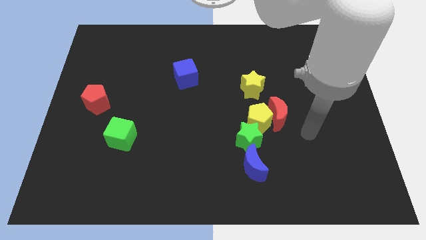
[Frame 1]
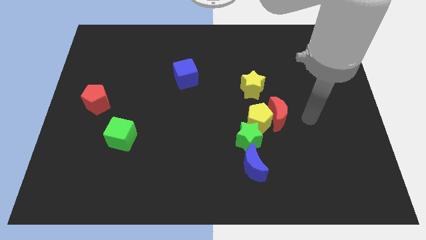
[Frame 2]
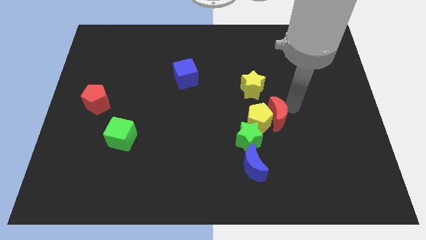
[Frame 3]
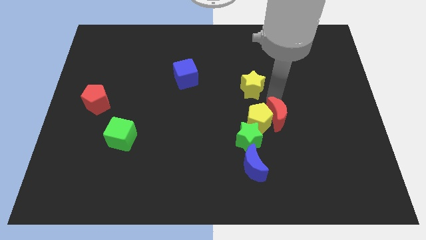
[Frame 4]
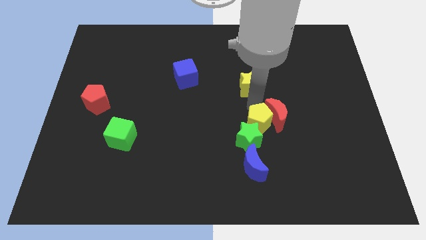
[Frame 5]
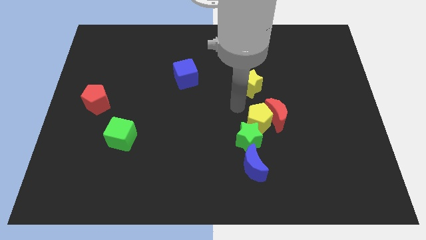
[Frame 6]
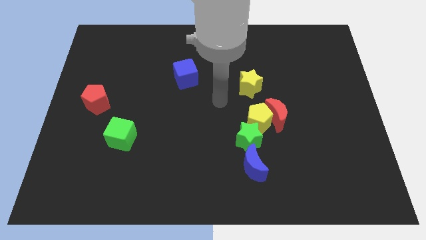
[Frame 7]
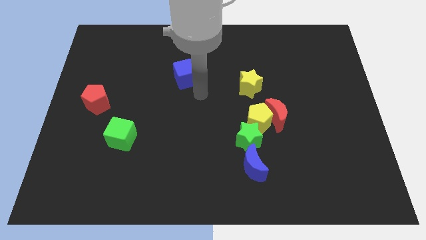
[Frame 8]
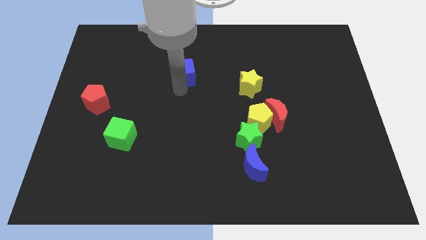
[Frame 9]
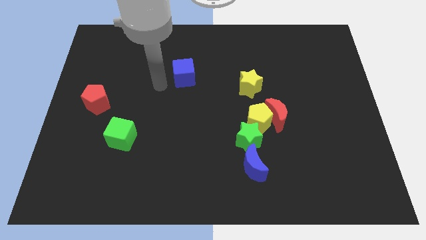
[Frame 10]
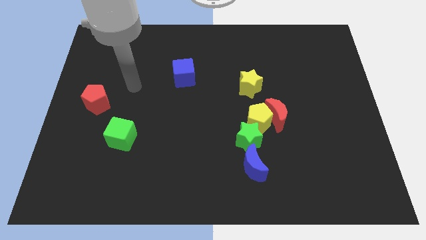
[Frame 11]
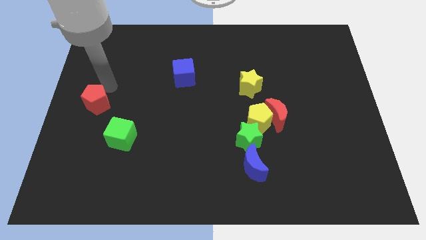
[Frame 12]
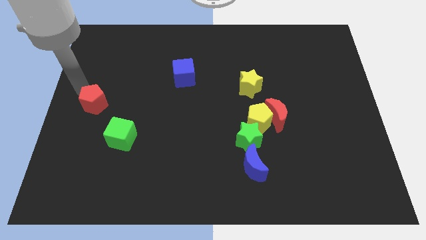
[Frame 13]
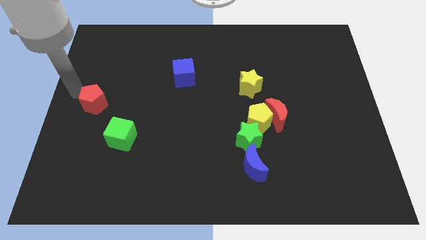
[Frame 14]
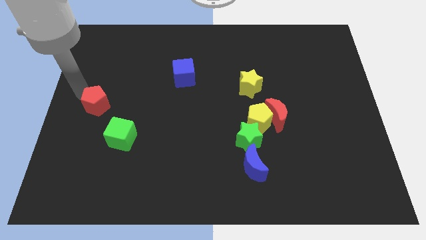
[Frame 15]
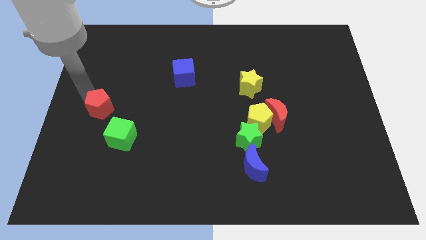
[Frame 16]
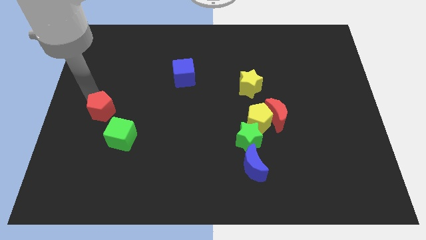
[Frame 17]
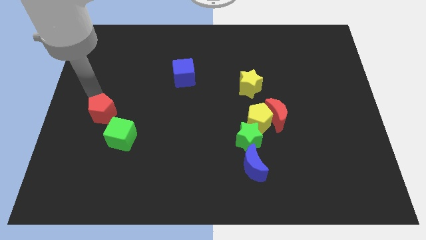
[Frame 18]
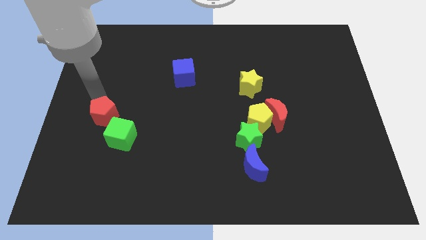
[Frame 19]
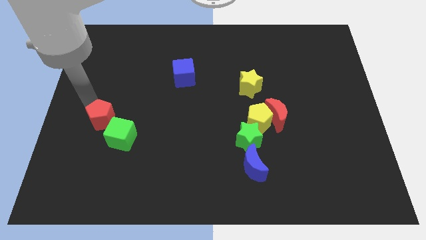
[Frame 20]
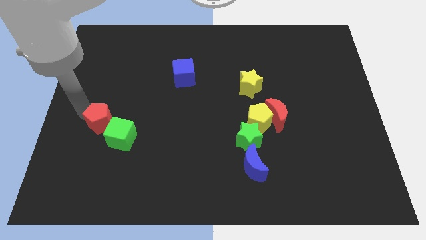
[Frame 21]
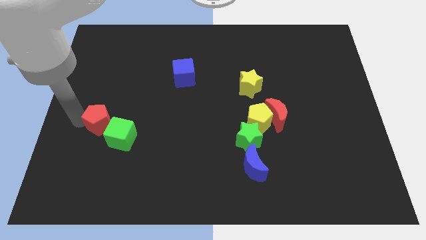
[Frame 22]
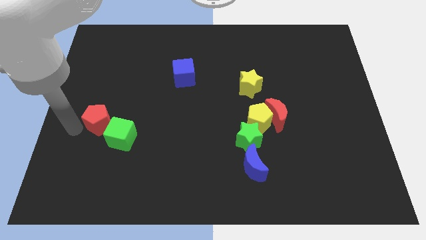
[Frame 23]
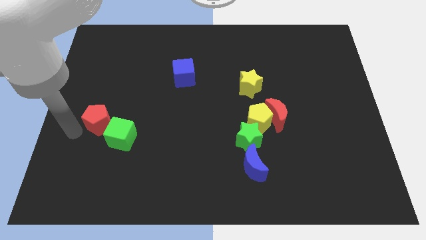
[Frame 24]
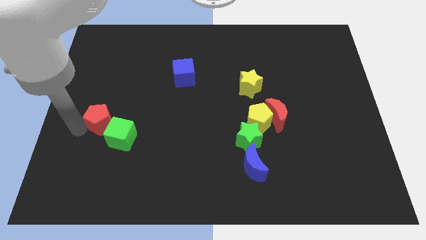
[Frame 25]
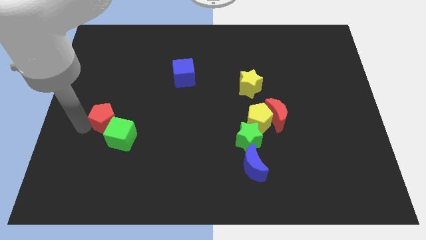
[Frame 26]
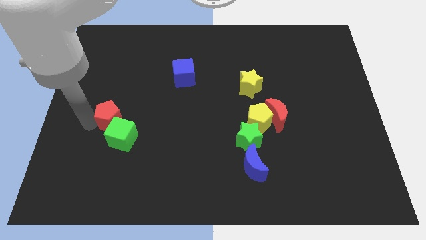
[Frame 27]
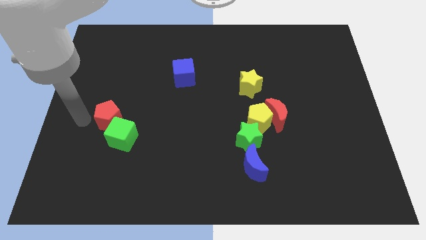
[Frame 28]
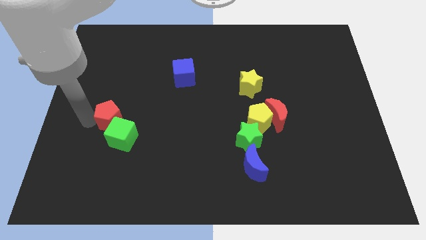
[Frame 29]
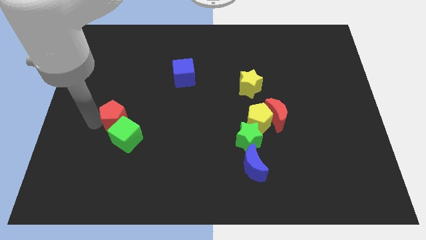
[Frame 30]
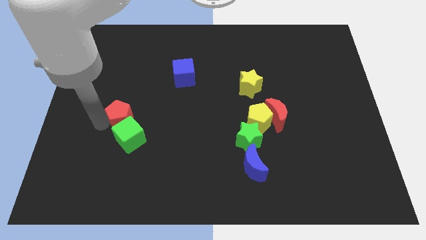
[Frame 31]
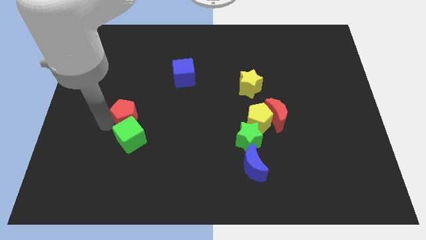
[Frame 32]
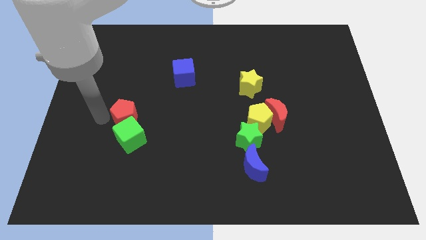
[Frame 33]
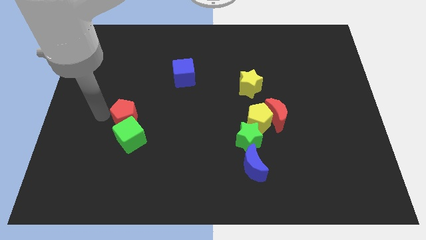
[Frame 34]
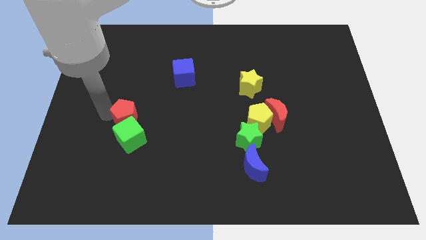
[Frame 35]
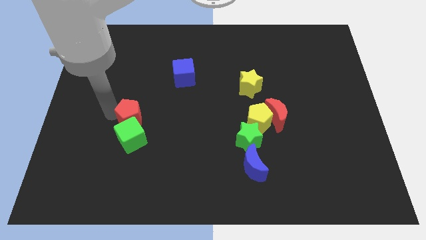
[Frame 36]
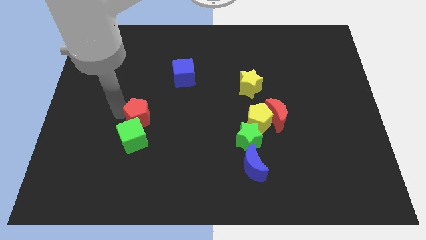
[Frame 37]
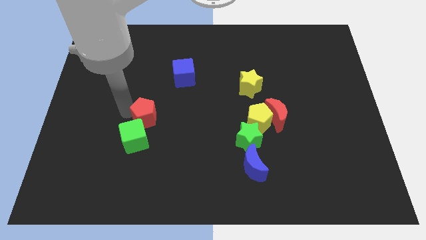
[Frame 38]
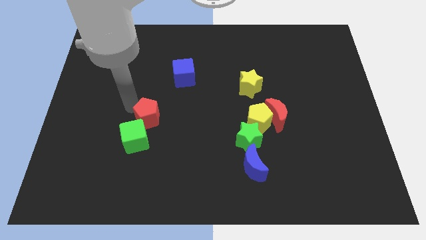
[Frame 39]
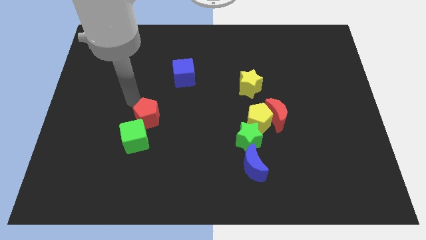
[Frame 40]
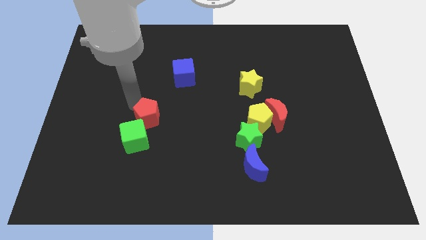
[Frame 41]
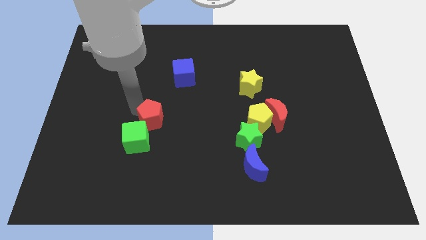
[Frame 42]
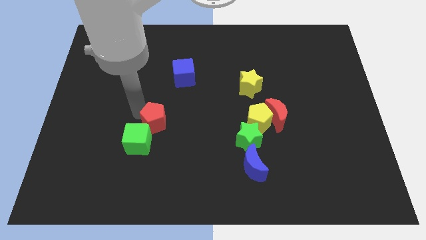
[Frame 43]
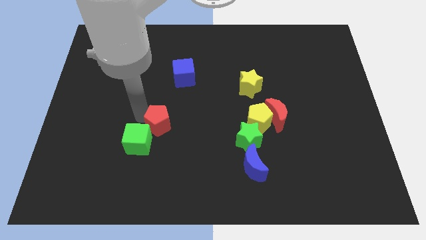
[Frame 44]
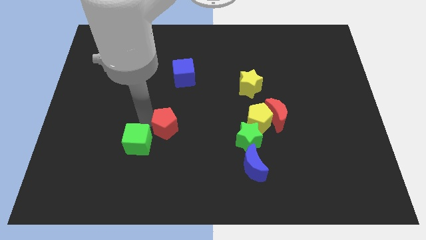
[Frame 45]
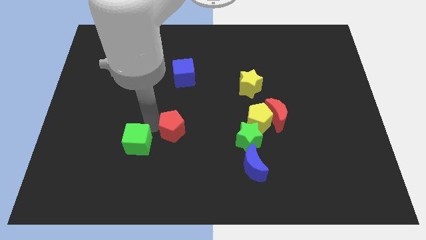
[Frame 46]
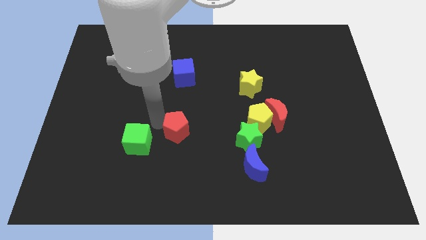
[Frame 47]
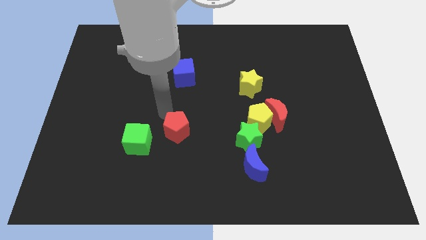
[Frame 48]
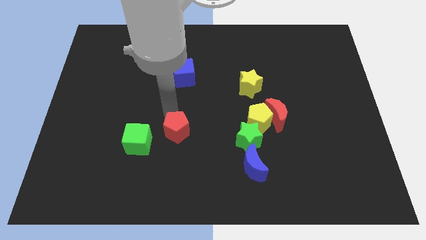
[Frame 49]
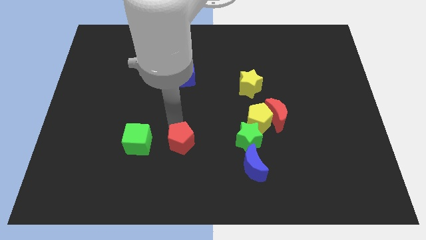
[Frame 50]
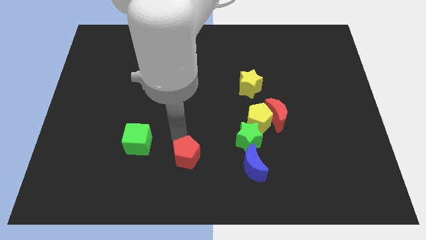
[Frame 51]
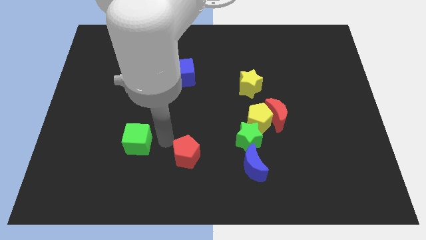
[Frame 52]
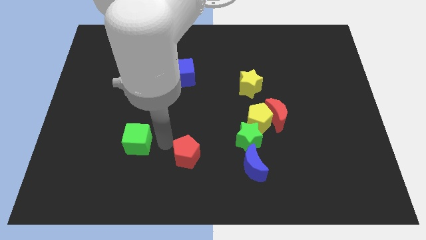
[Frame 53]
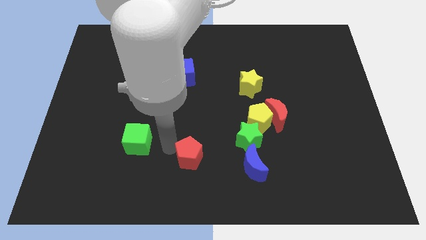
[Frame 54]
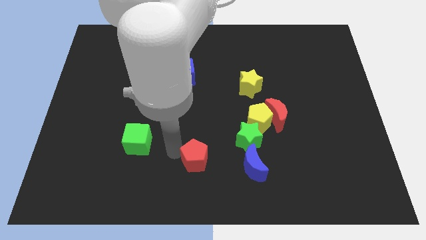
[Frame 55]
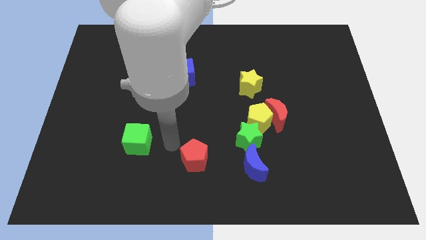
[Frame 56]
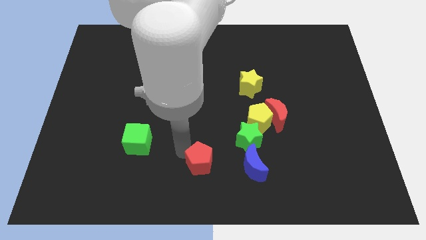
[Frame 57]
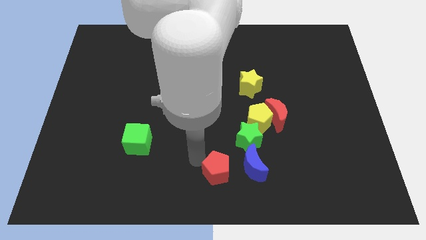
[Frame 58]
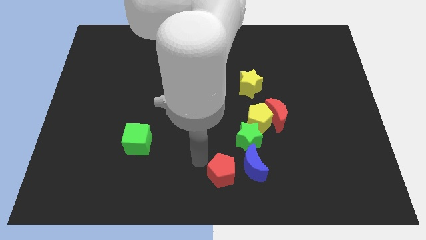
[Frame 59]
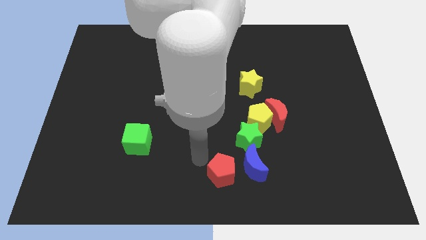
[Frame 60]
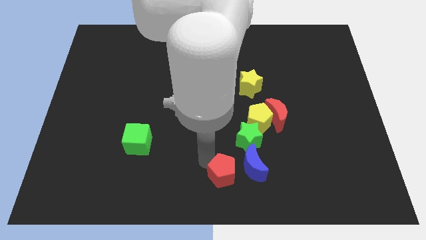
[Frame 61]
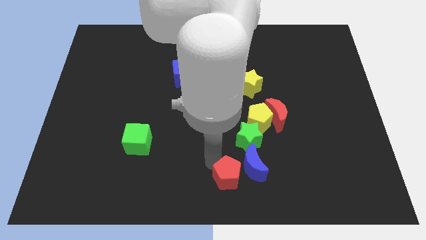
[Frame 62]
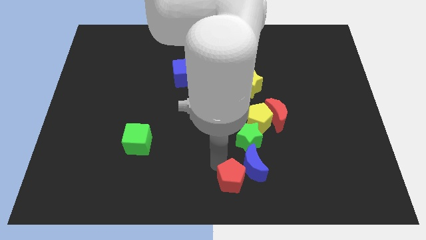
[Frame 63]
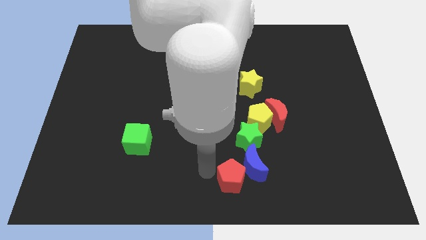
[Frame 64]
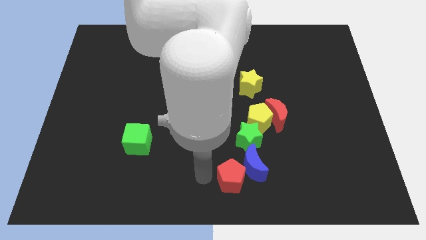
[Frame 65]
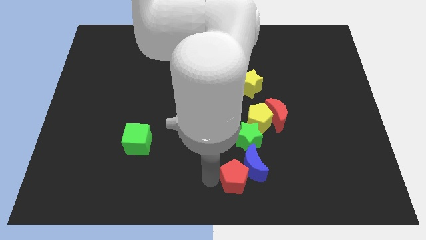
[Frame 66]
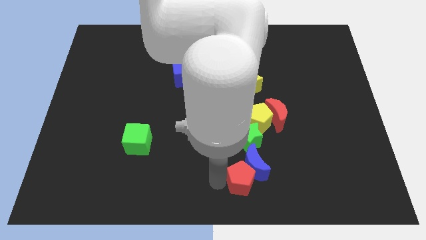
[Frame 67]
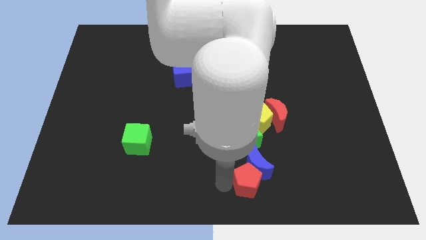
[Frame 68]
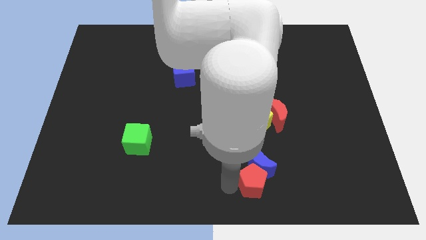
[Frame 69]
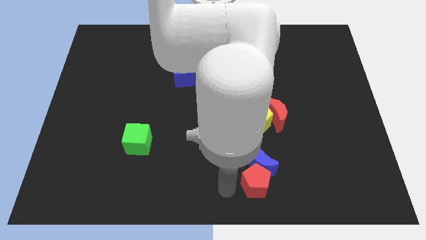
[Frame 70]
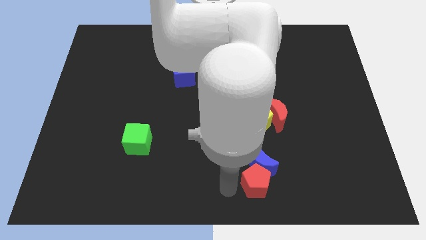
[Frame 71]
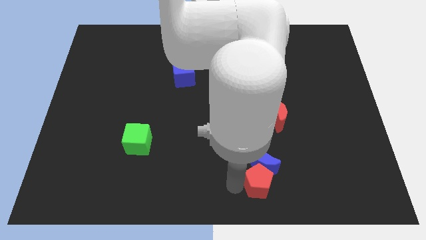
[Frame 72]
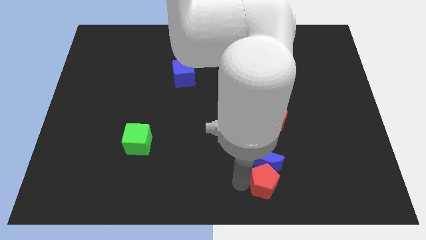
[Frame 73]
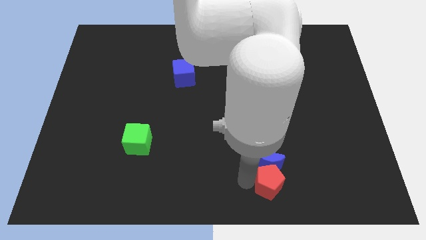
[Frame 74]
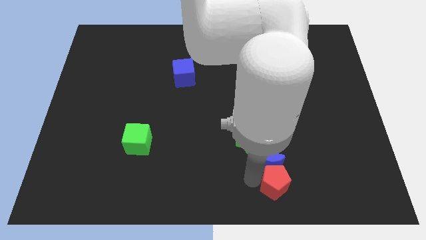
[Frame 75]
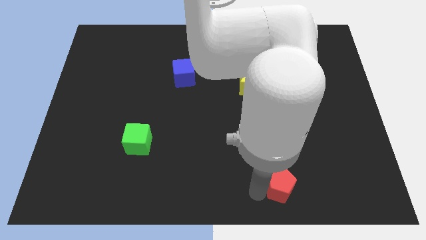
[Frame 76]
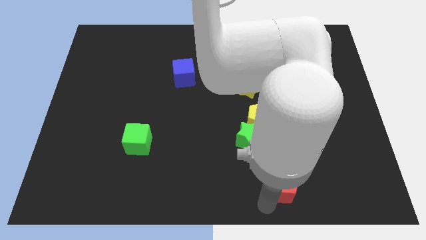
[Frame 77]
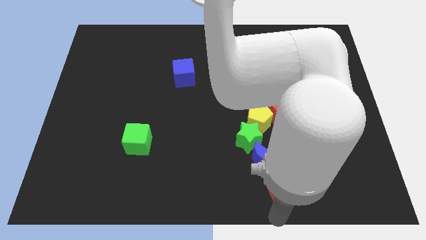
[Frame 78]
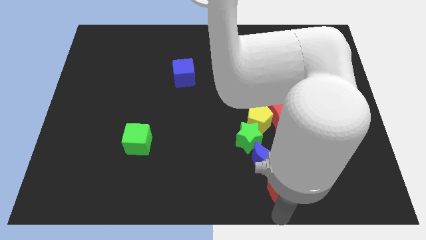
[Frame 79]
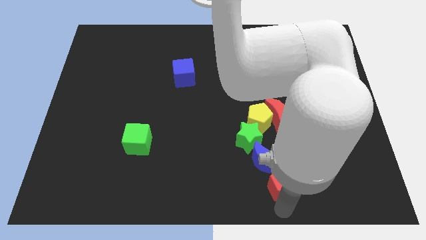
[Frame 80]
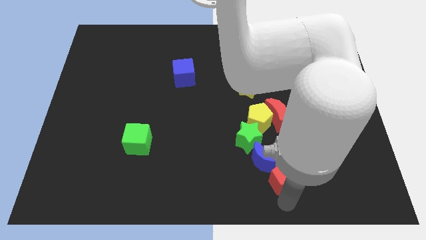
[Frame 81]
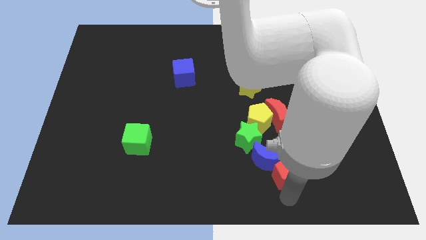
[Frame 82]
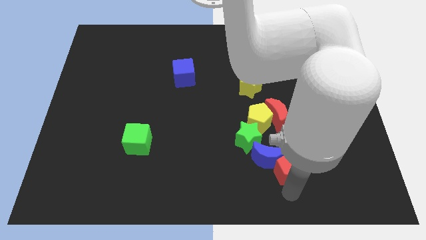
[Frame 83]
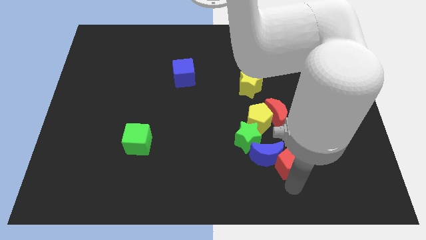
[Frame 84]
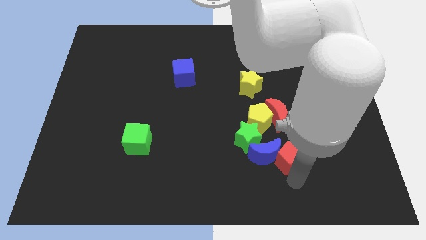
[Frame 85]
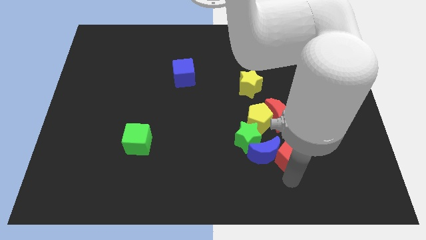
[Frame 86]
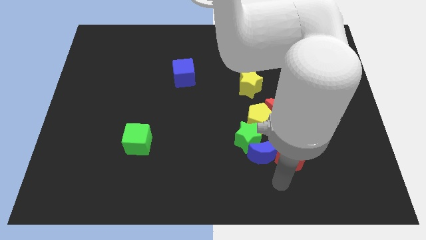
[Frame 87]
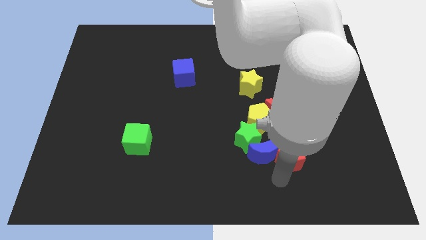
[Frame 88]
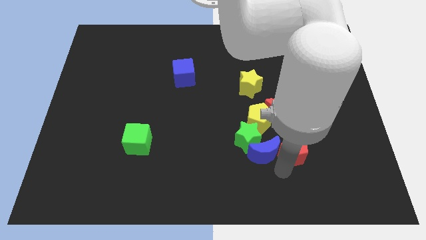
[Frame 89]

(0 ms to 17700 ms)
put the red pentagon diagonally down and to the right of the red moon
